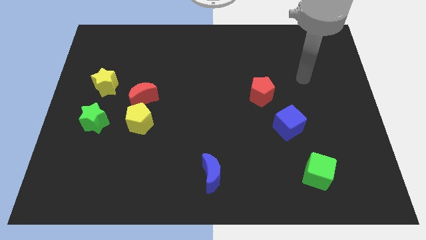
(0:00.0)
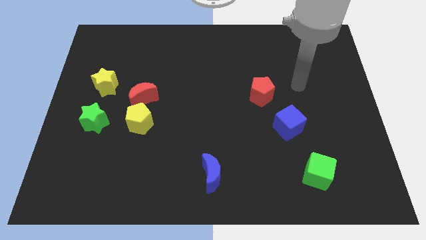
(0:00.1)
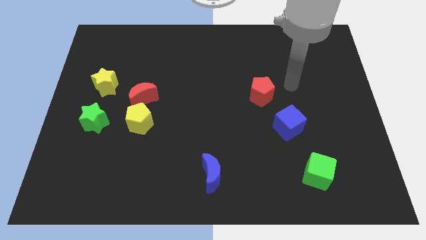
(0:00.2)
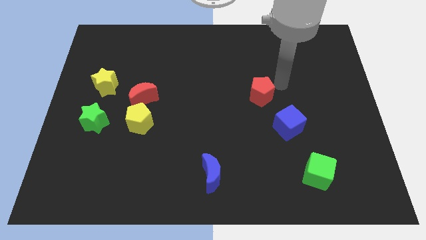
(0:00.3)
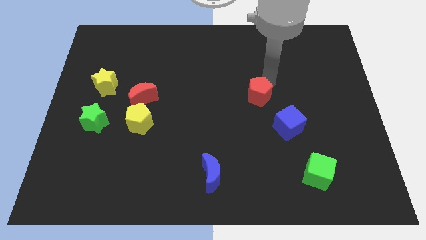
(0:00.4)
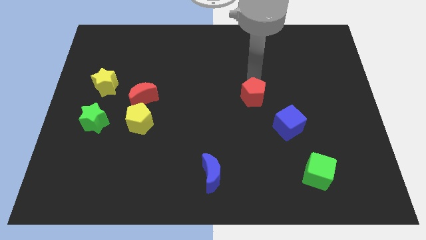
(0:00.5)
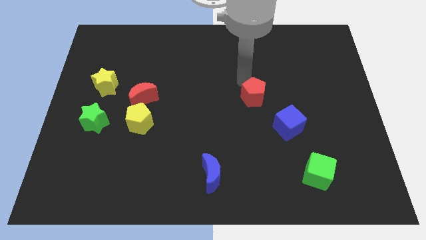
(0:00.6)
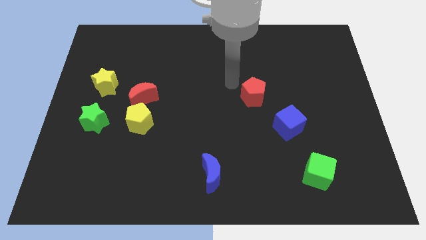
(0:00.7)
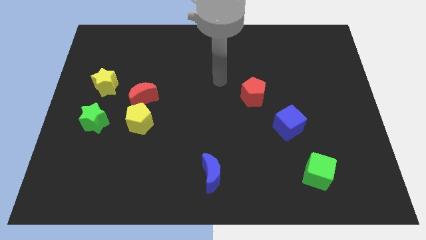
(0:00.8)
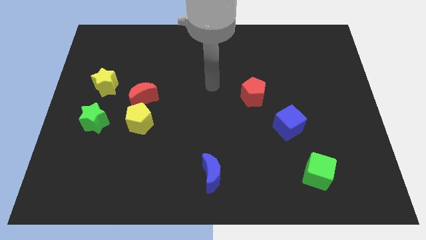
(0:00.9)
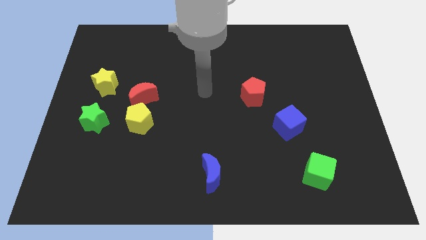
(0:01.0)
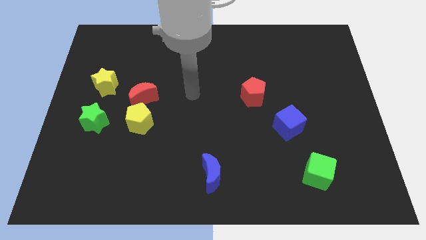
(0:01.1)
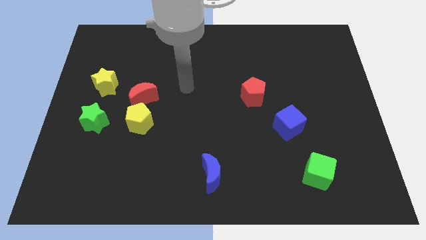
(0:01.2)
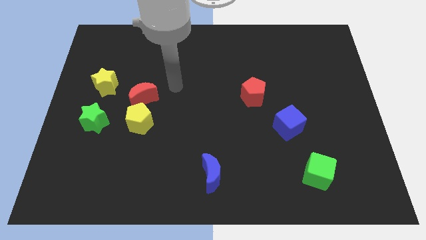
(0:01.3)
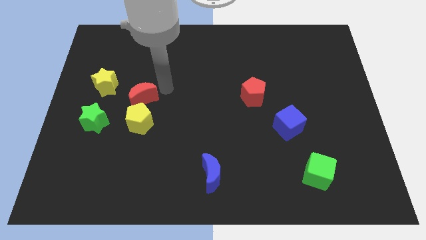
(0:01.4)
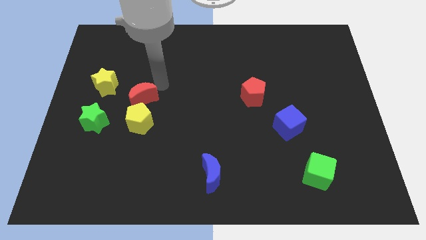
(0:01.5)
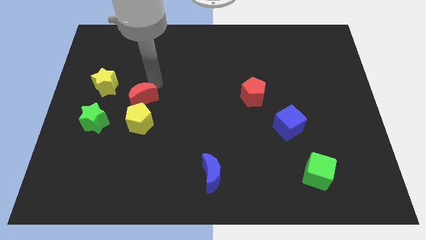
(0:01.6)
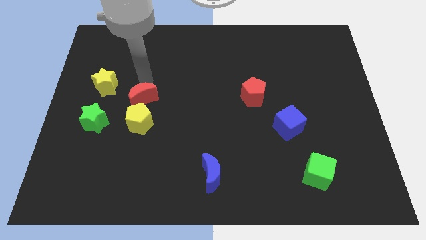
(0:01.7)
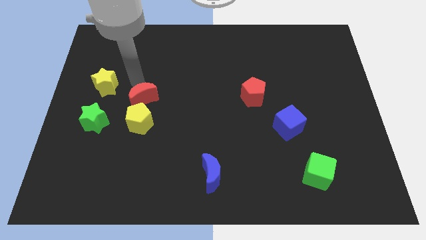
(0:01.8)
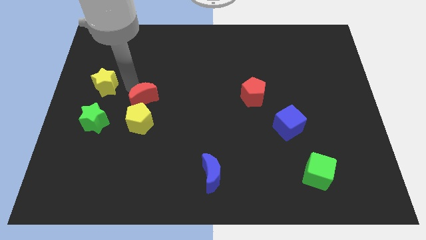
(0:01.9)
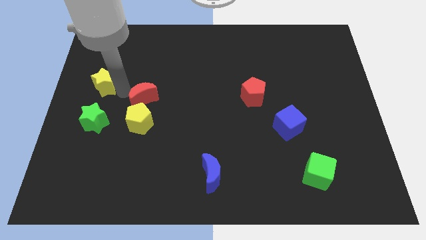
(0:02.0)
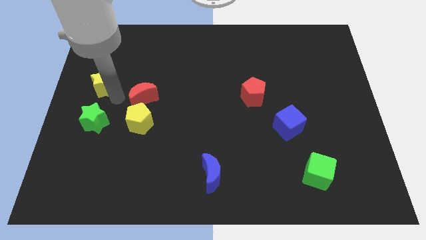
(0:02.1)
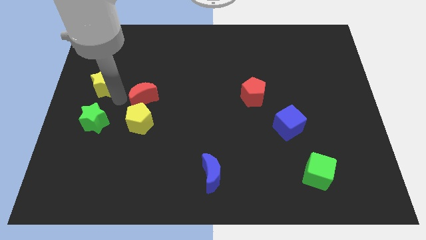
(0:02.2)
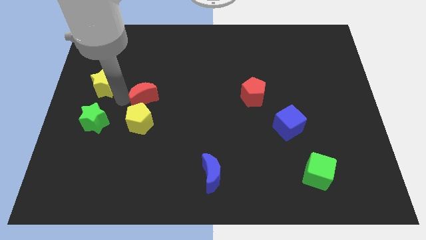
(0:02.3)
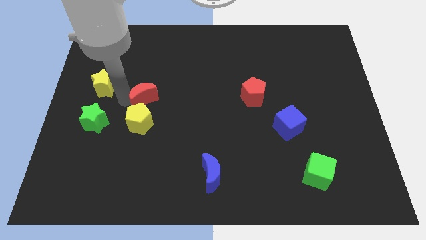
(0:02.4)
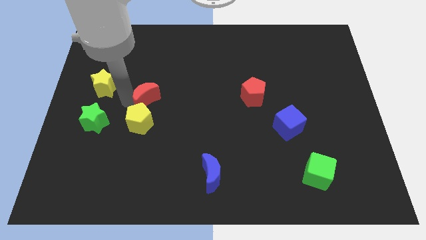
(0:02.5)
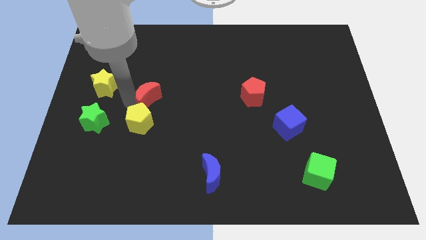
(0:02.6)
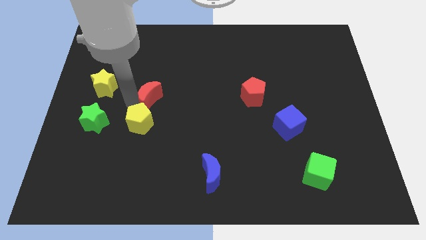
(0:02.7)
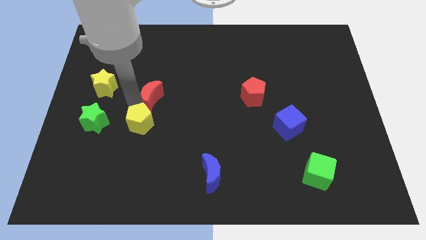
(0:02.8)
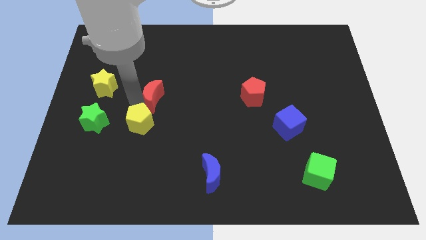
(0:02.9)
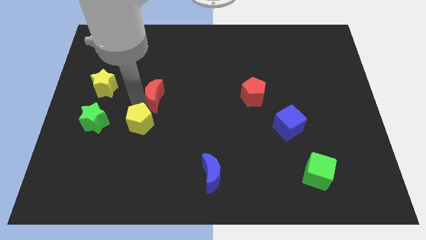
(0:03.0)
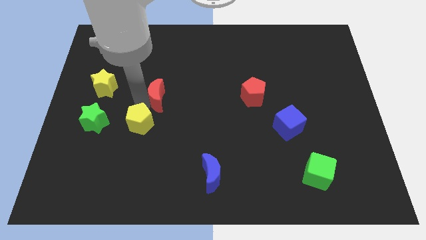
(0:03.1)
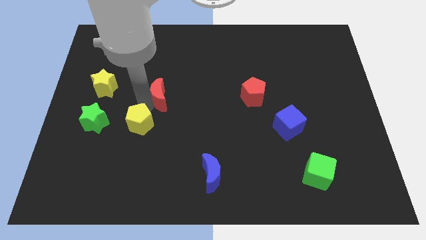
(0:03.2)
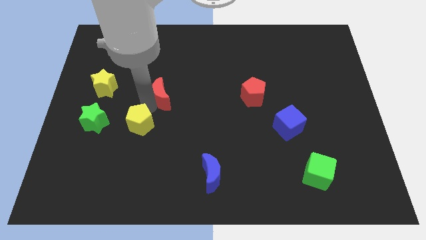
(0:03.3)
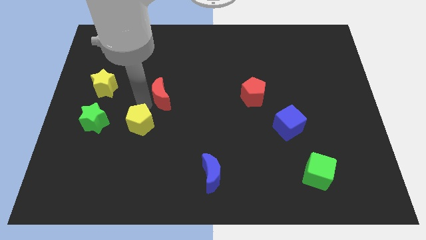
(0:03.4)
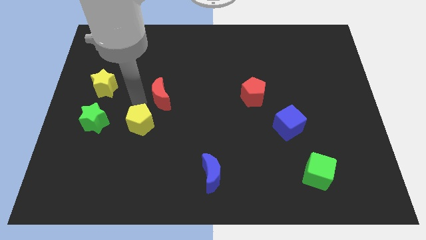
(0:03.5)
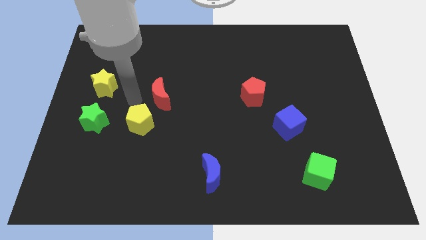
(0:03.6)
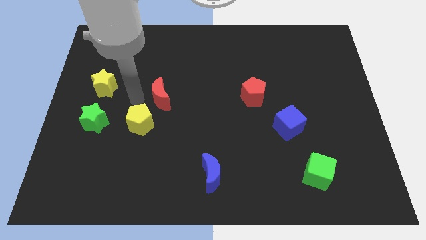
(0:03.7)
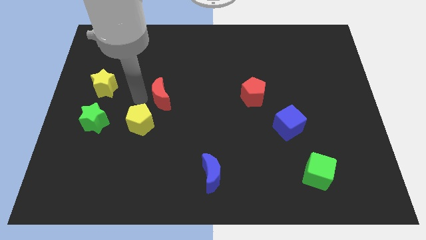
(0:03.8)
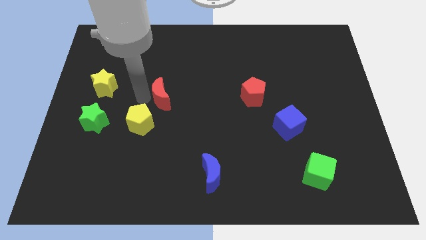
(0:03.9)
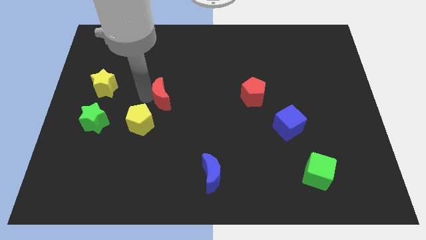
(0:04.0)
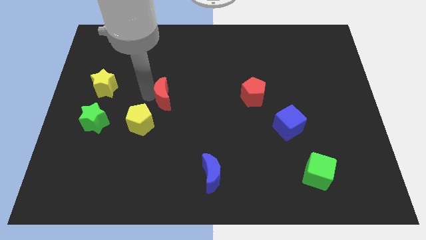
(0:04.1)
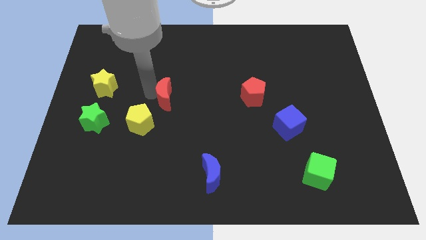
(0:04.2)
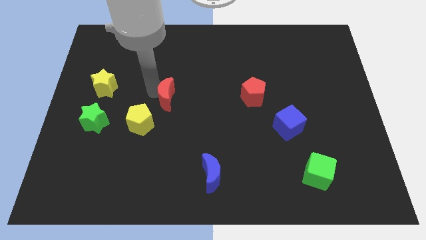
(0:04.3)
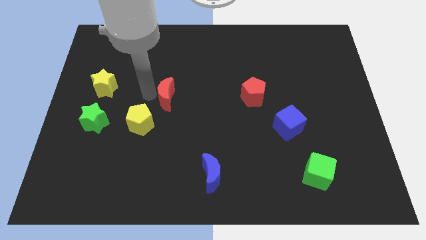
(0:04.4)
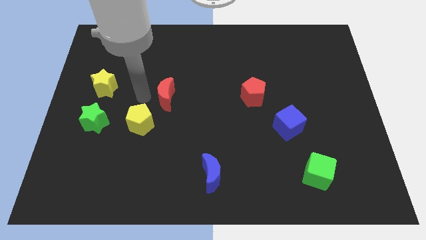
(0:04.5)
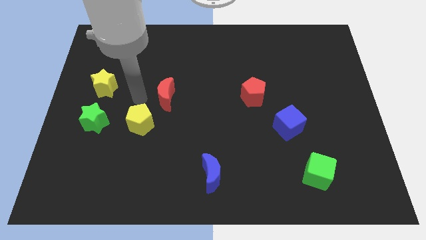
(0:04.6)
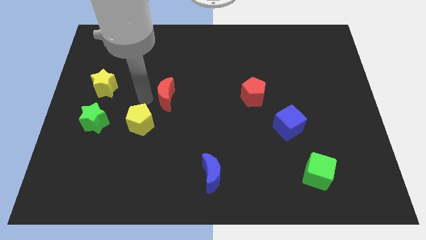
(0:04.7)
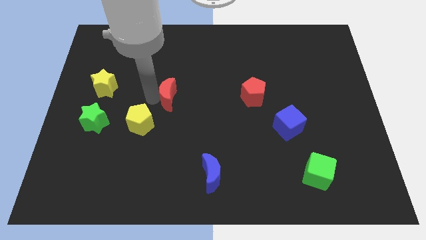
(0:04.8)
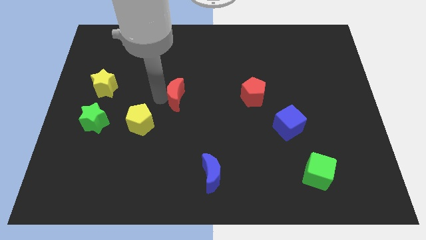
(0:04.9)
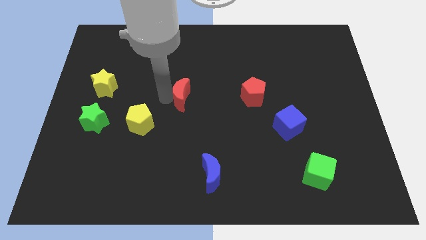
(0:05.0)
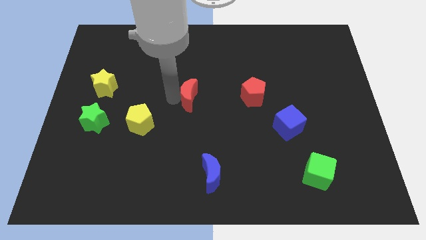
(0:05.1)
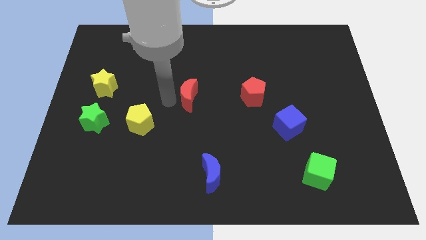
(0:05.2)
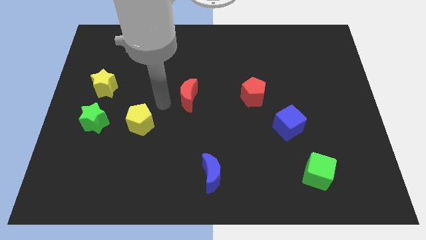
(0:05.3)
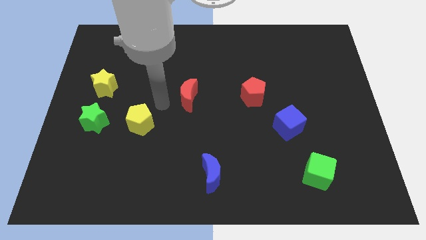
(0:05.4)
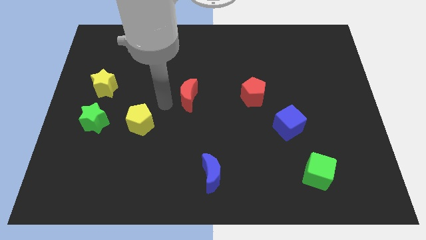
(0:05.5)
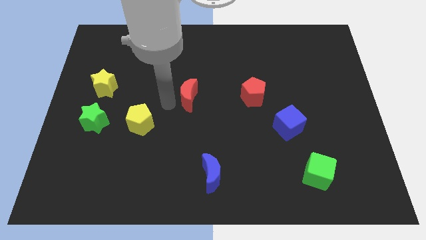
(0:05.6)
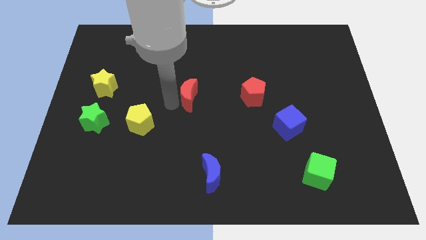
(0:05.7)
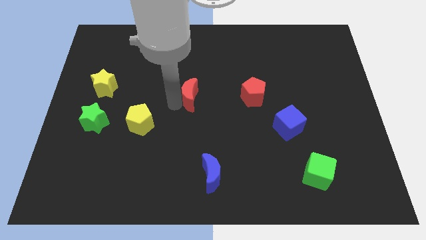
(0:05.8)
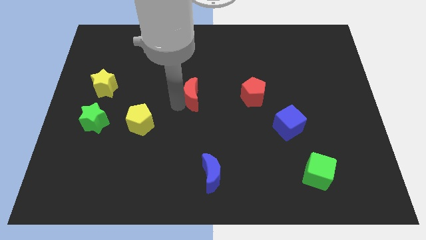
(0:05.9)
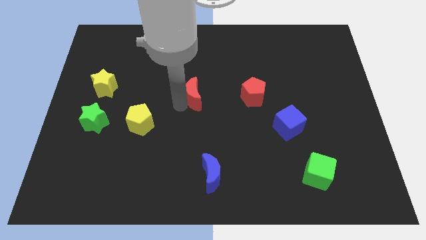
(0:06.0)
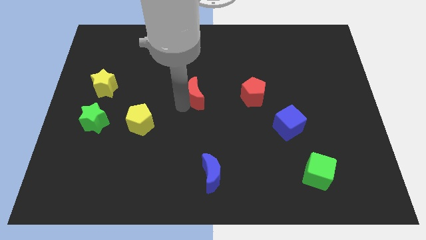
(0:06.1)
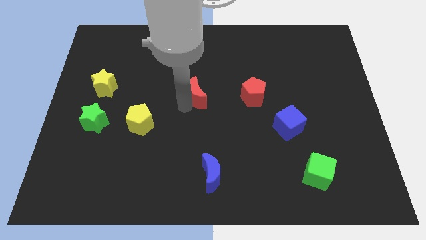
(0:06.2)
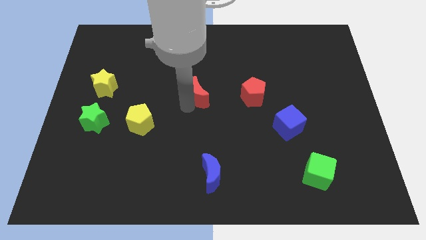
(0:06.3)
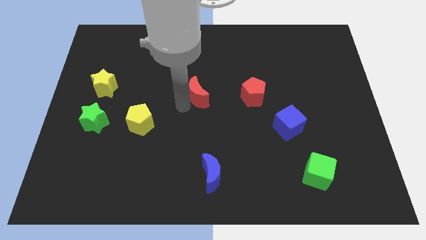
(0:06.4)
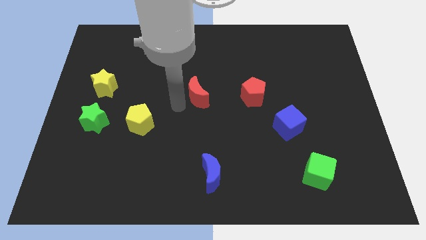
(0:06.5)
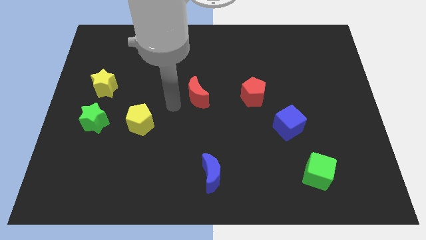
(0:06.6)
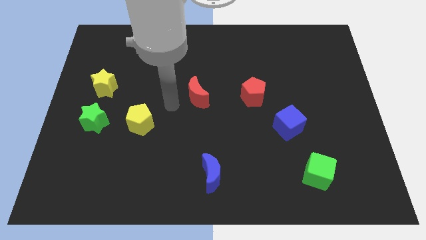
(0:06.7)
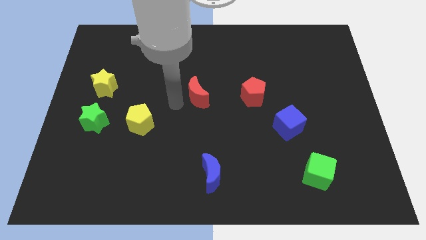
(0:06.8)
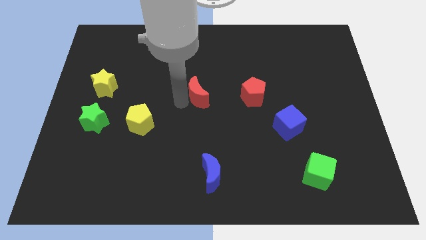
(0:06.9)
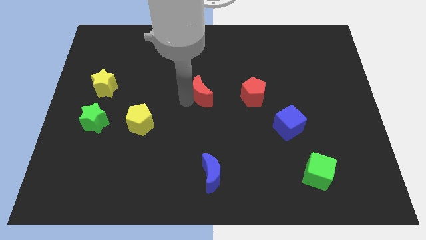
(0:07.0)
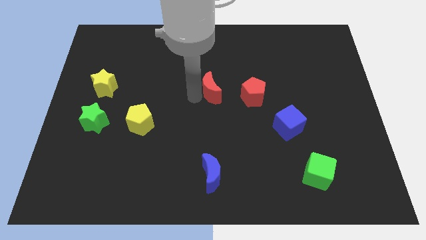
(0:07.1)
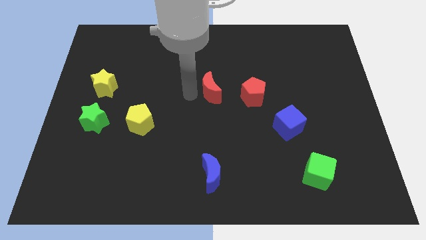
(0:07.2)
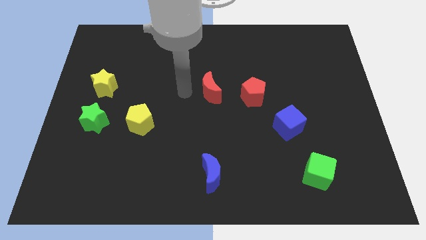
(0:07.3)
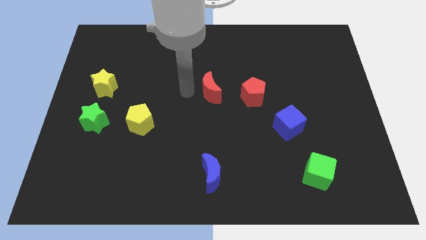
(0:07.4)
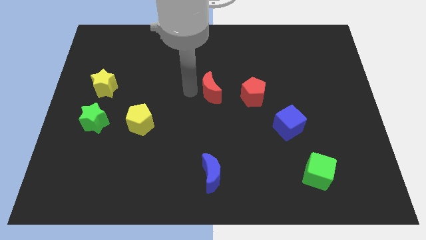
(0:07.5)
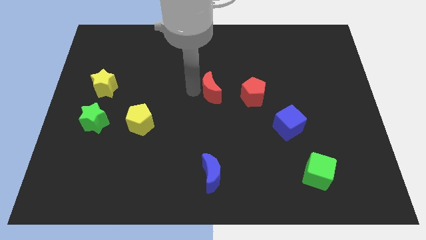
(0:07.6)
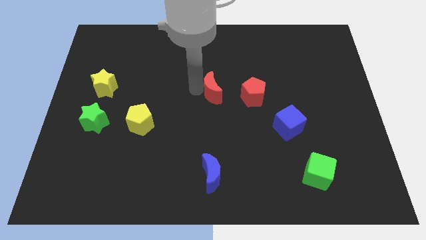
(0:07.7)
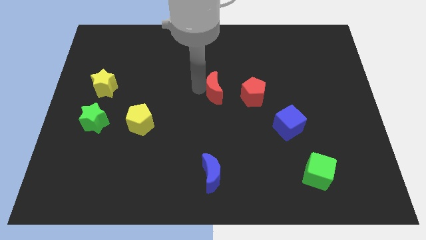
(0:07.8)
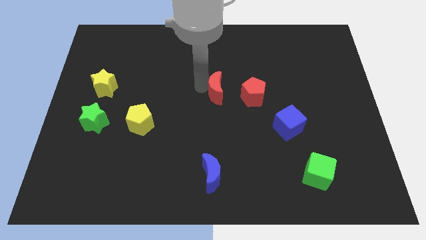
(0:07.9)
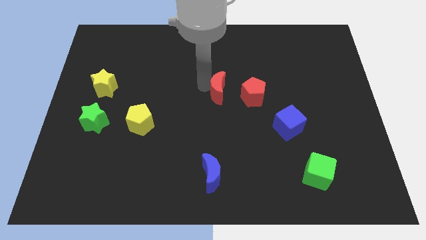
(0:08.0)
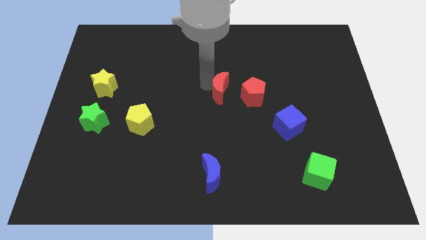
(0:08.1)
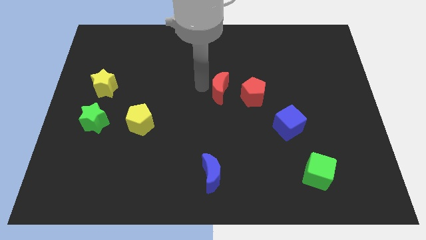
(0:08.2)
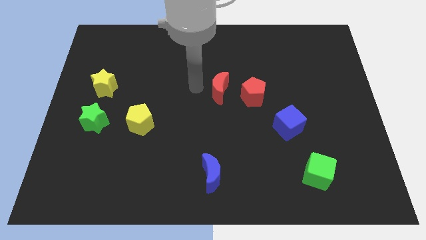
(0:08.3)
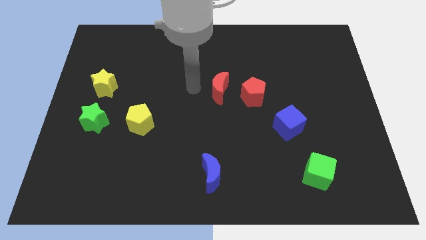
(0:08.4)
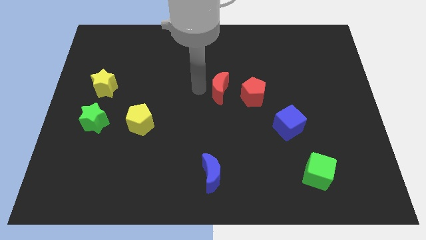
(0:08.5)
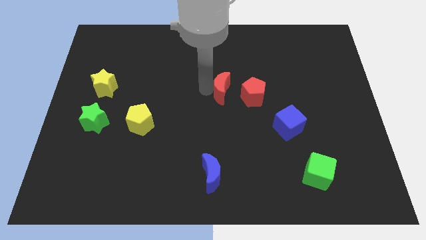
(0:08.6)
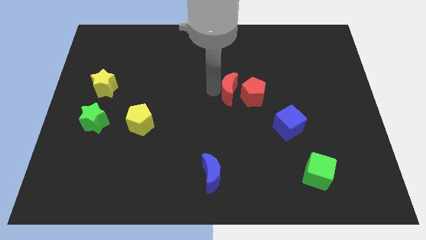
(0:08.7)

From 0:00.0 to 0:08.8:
push the red moon to the red pentagon
